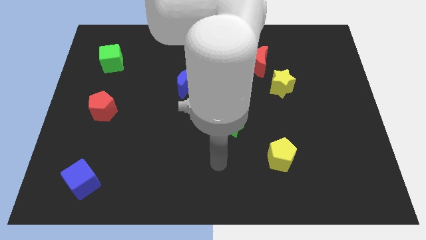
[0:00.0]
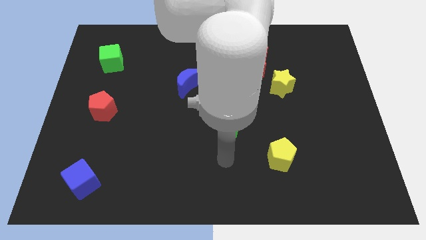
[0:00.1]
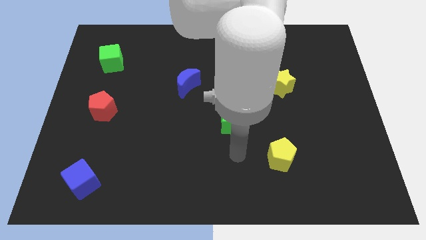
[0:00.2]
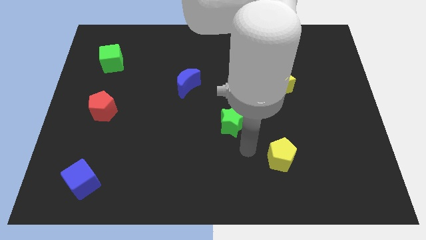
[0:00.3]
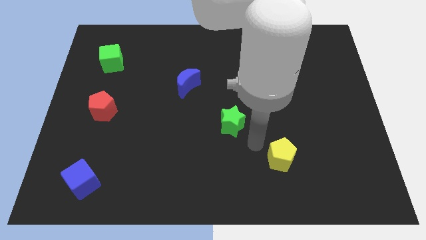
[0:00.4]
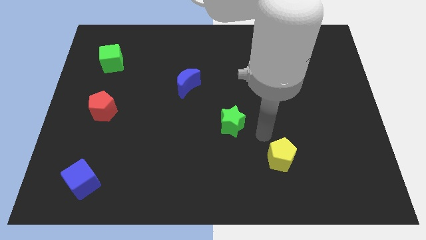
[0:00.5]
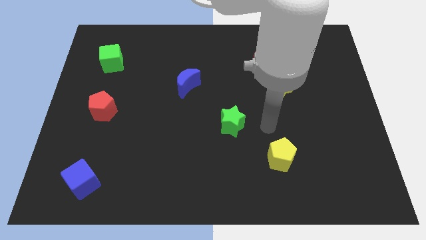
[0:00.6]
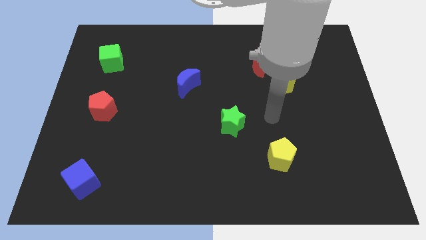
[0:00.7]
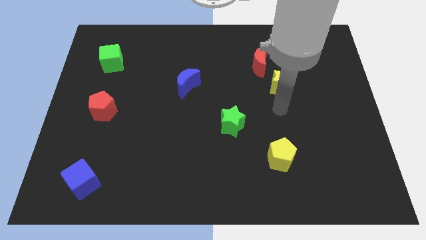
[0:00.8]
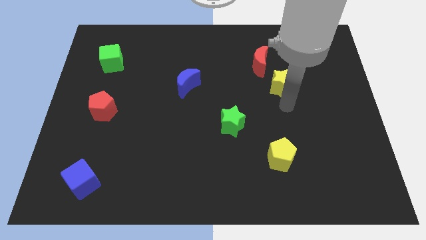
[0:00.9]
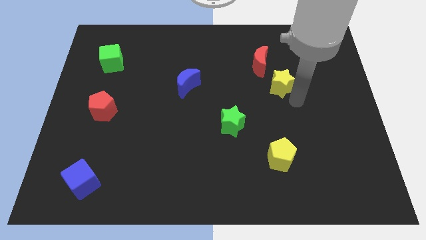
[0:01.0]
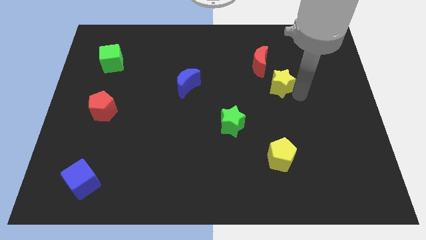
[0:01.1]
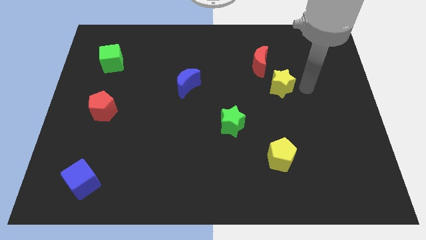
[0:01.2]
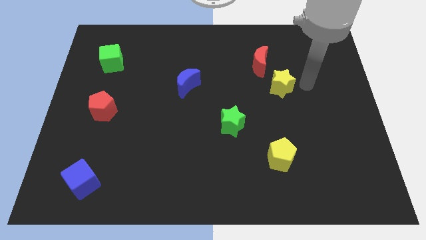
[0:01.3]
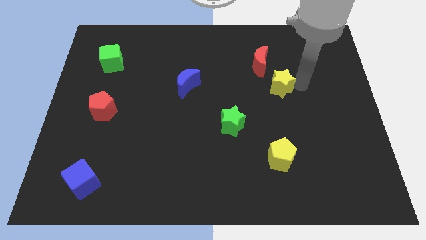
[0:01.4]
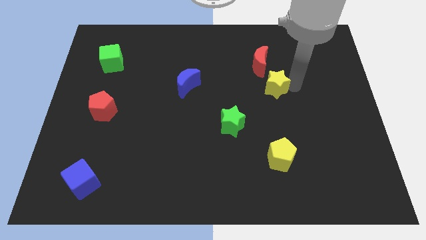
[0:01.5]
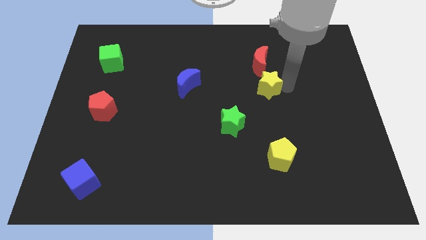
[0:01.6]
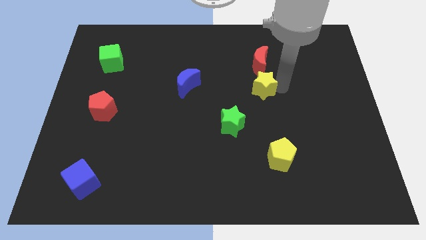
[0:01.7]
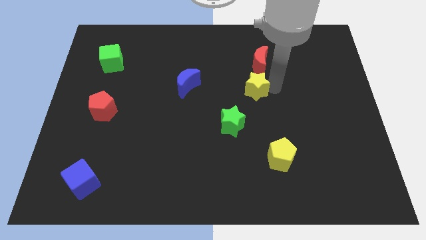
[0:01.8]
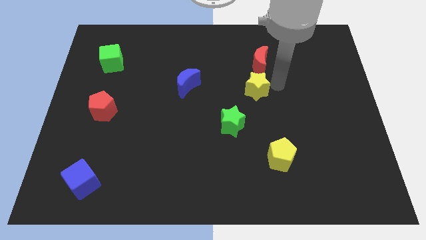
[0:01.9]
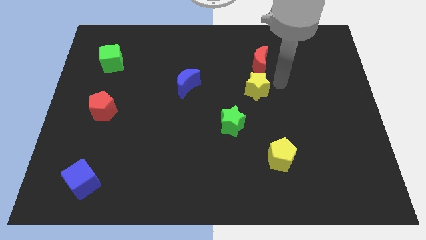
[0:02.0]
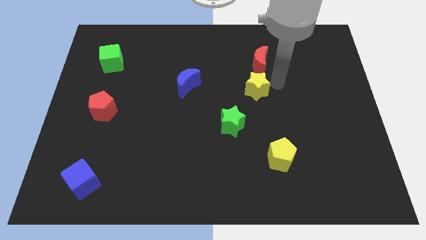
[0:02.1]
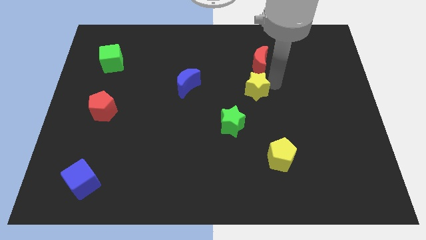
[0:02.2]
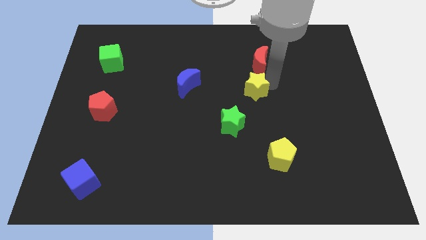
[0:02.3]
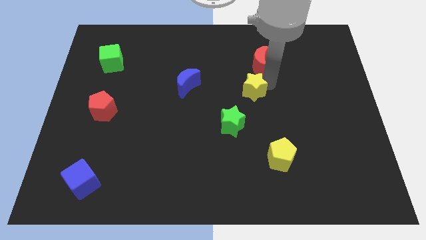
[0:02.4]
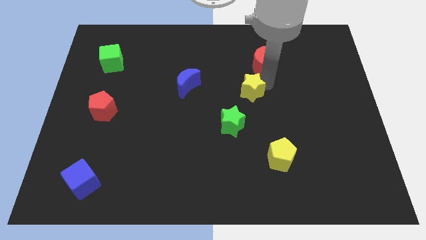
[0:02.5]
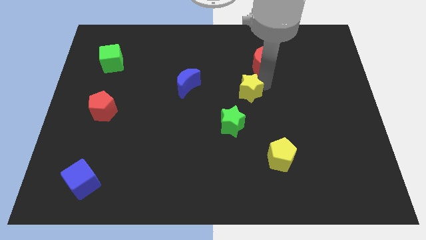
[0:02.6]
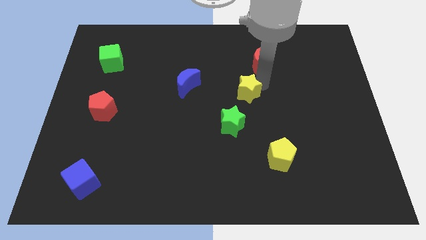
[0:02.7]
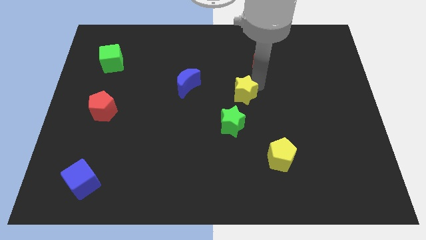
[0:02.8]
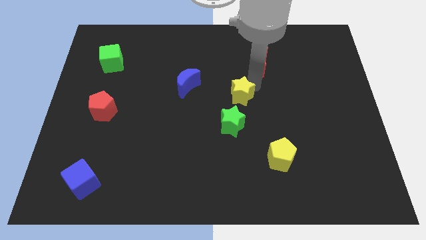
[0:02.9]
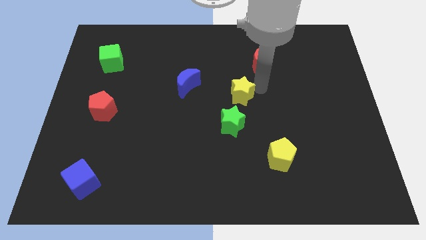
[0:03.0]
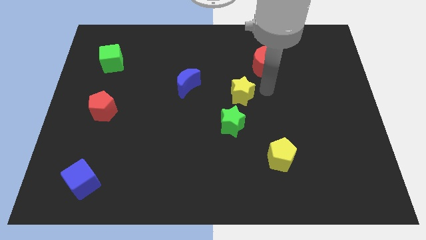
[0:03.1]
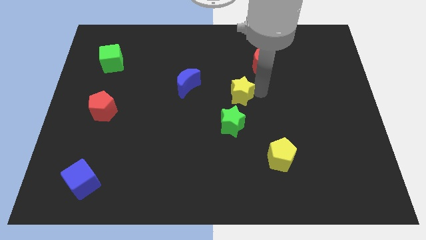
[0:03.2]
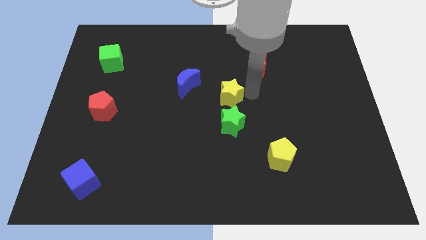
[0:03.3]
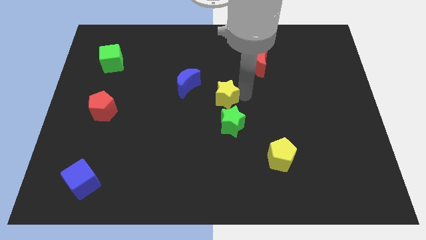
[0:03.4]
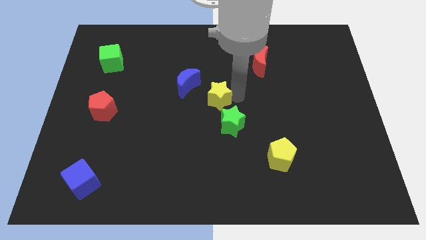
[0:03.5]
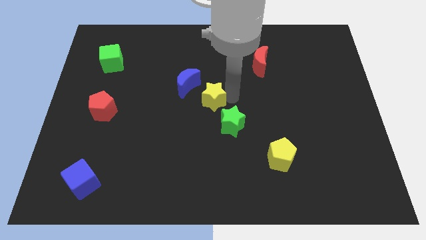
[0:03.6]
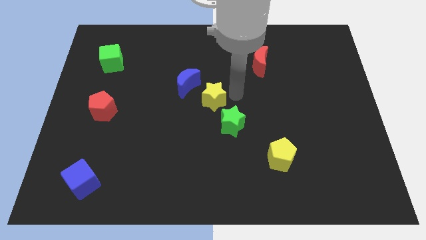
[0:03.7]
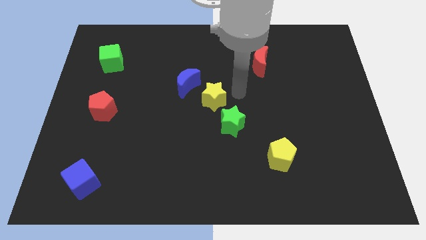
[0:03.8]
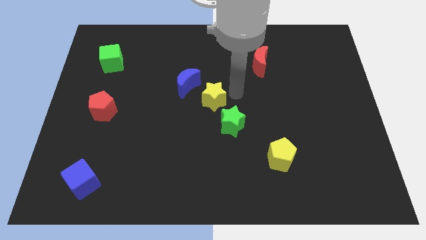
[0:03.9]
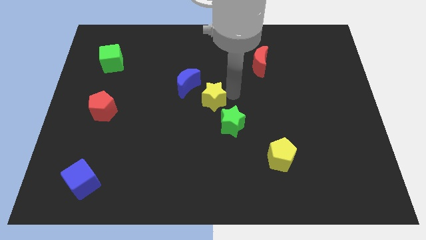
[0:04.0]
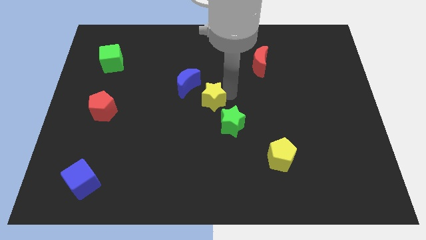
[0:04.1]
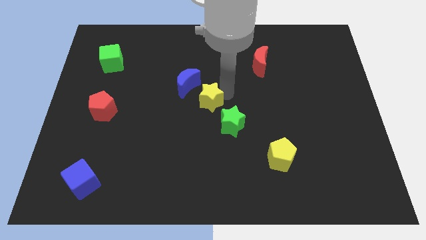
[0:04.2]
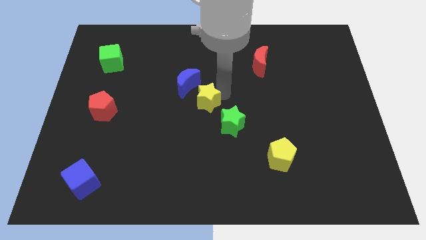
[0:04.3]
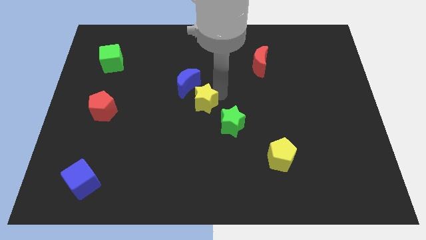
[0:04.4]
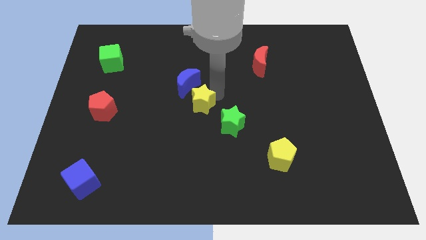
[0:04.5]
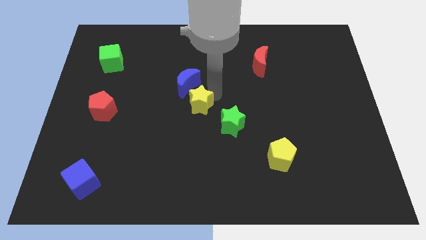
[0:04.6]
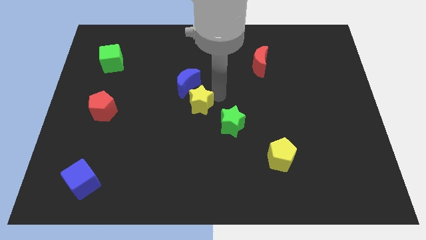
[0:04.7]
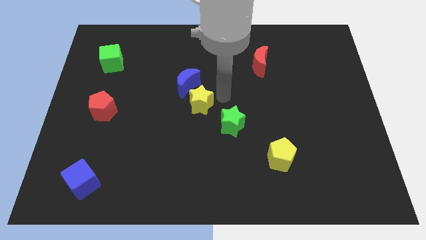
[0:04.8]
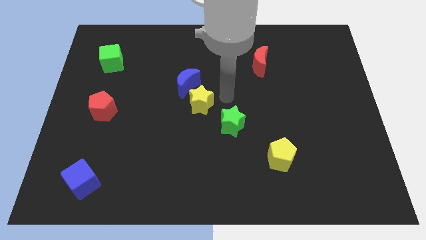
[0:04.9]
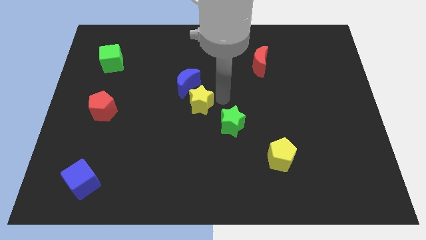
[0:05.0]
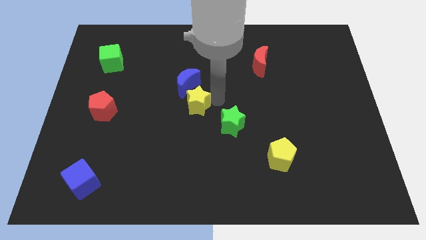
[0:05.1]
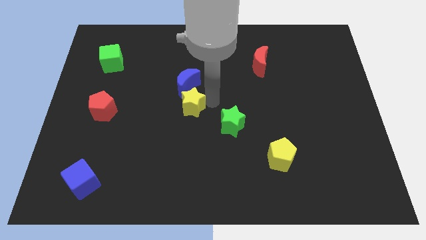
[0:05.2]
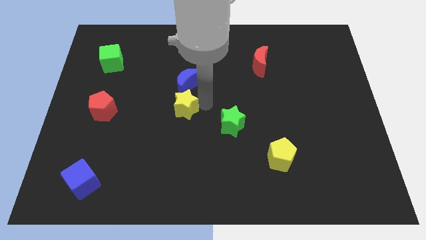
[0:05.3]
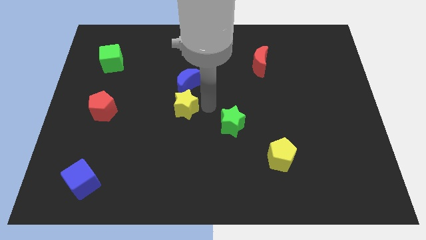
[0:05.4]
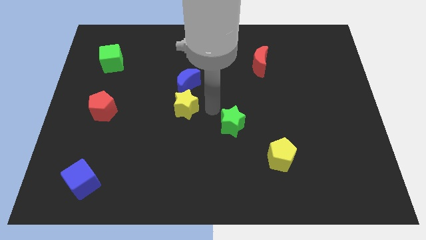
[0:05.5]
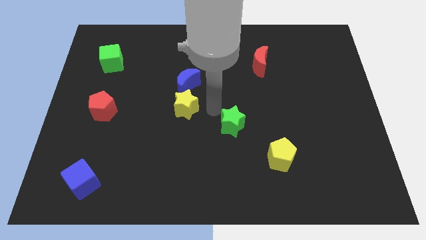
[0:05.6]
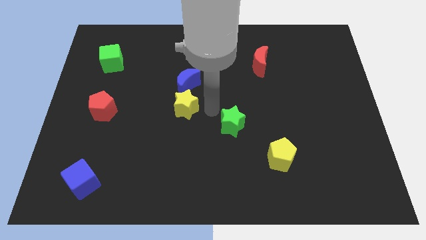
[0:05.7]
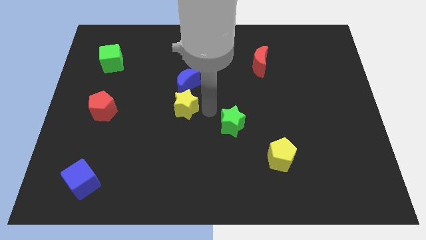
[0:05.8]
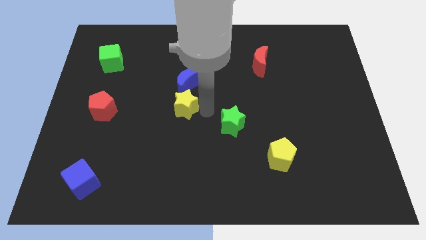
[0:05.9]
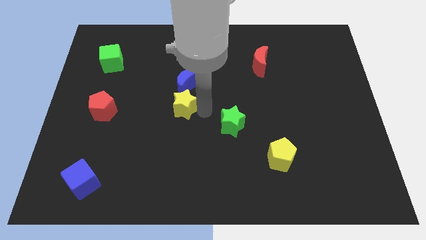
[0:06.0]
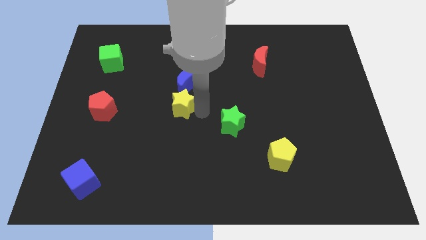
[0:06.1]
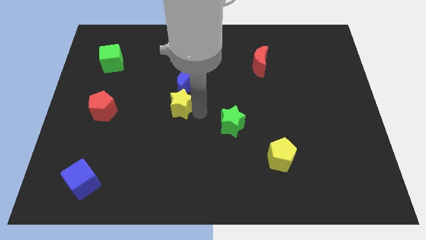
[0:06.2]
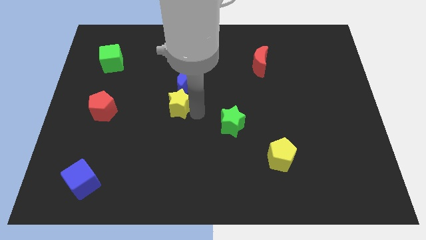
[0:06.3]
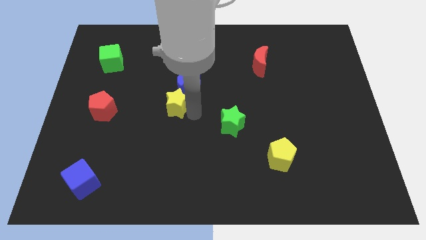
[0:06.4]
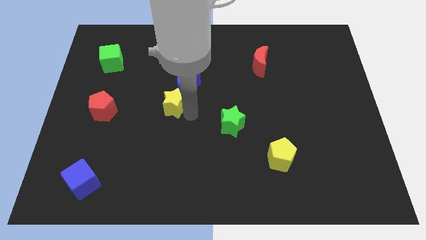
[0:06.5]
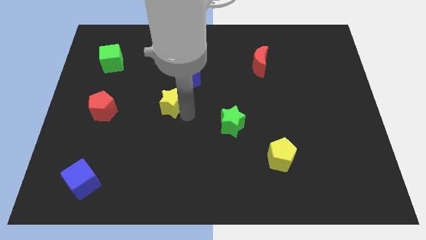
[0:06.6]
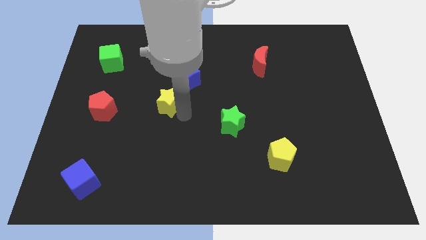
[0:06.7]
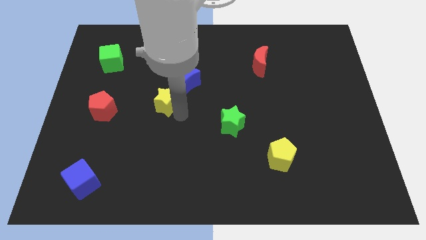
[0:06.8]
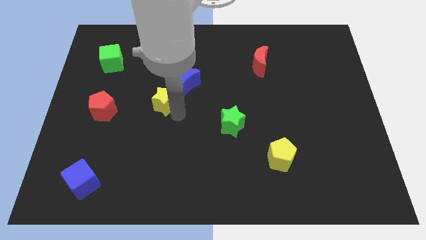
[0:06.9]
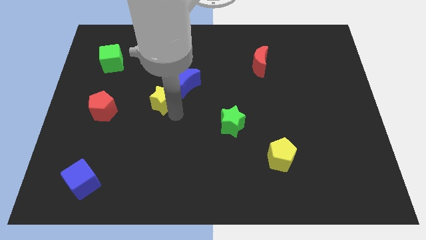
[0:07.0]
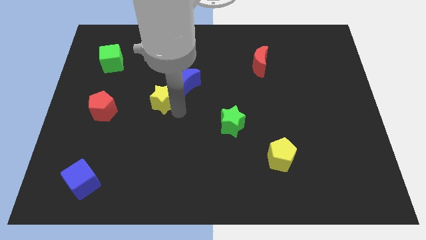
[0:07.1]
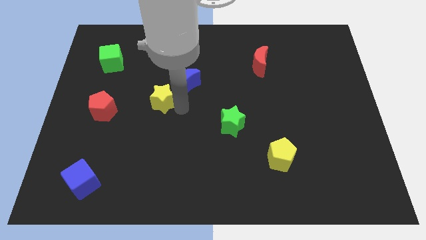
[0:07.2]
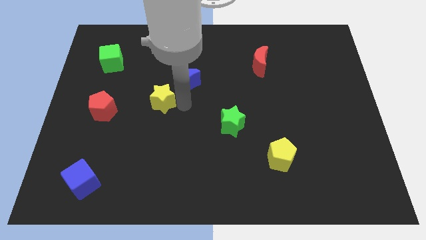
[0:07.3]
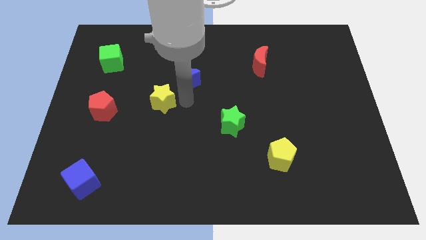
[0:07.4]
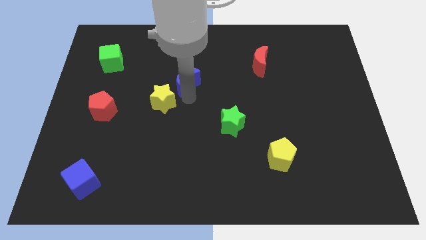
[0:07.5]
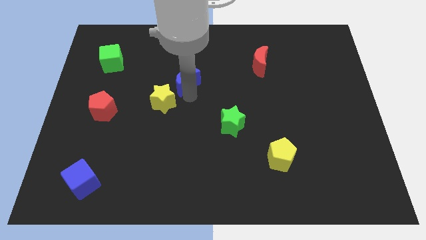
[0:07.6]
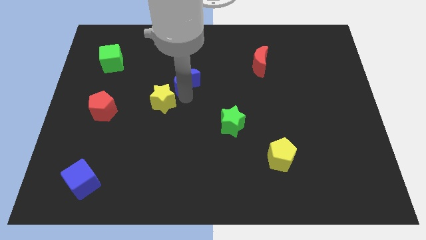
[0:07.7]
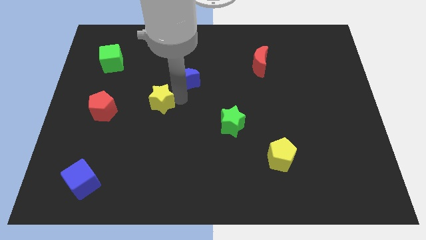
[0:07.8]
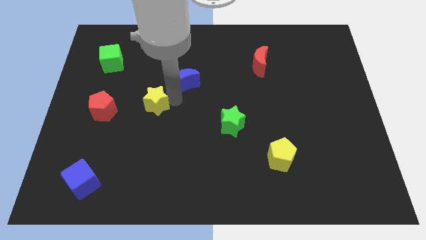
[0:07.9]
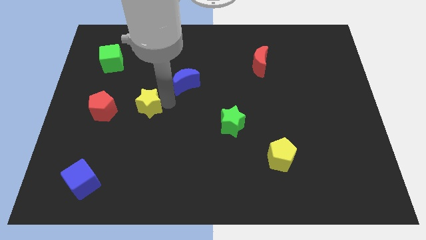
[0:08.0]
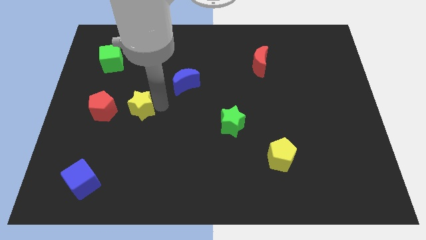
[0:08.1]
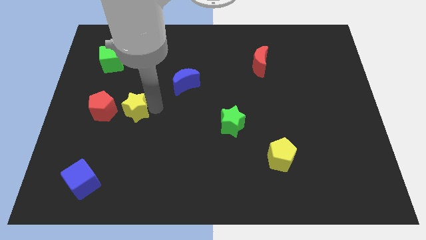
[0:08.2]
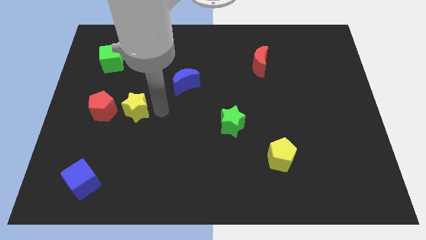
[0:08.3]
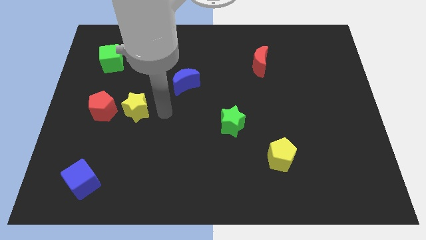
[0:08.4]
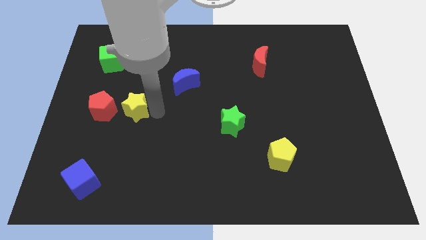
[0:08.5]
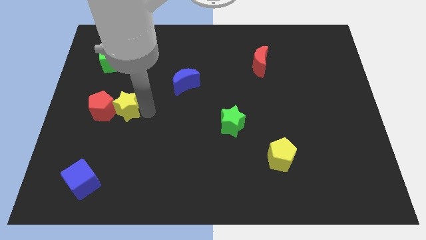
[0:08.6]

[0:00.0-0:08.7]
slide the yellow star close to the red pentagon
